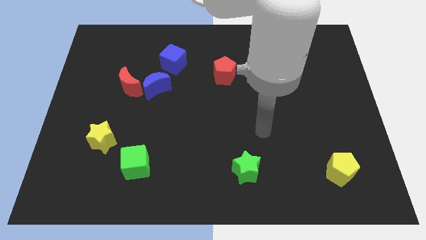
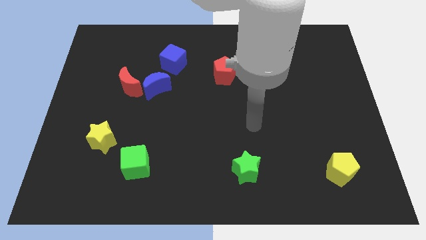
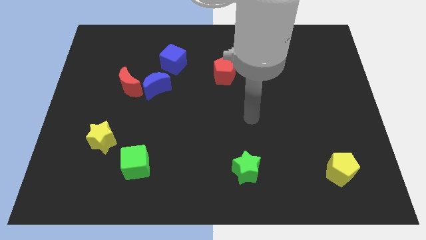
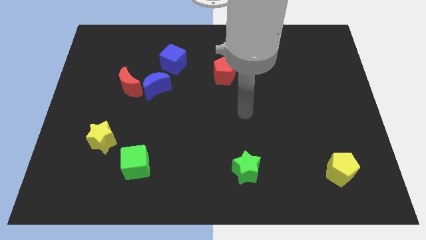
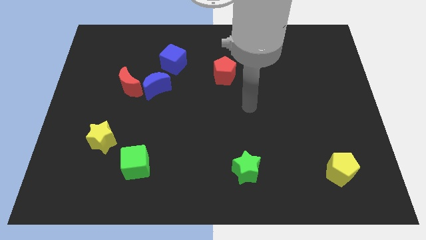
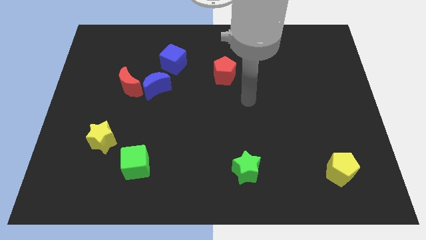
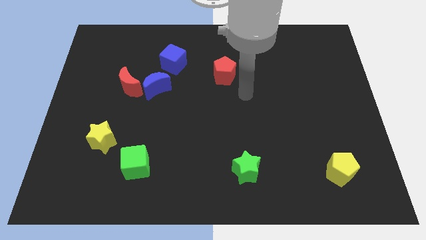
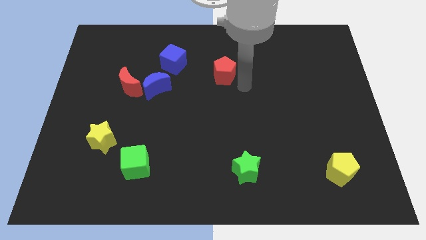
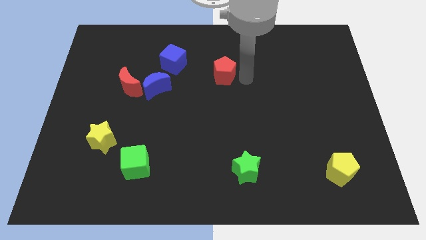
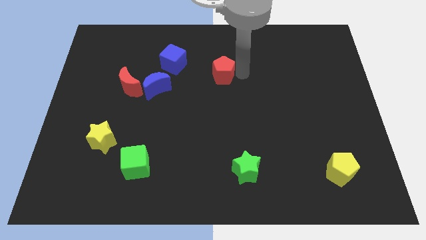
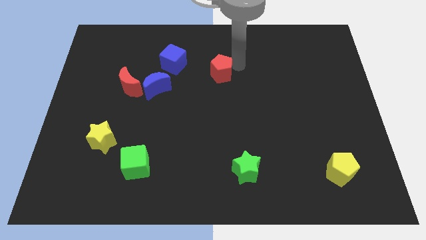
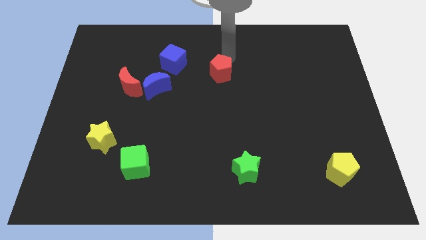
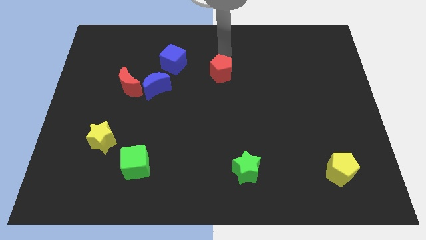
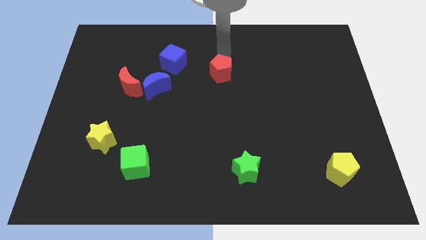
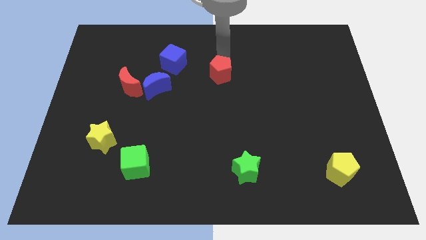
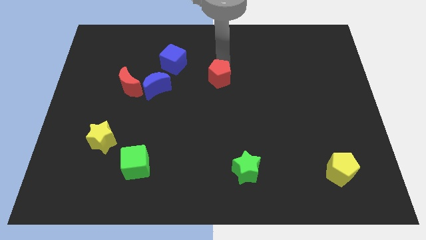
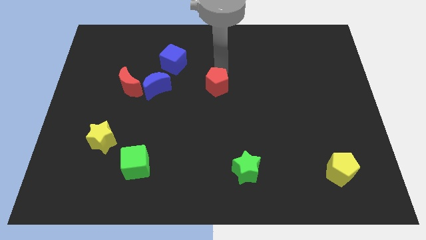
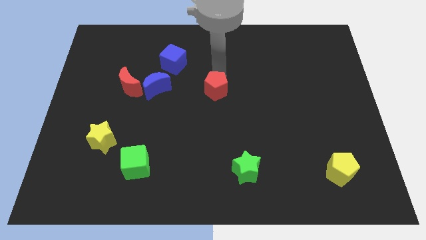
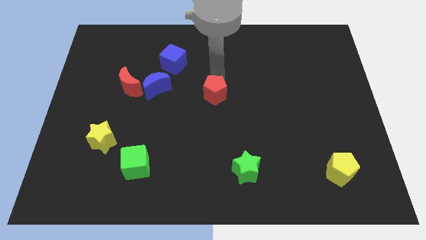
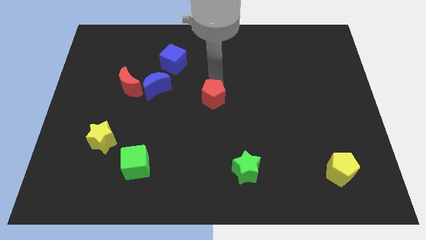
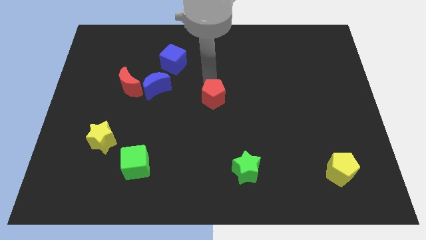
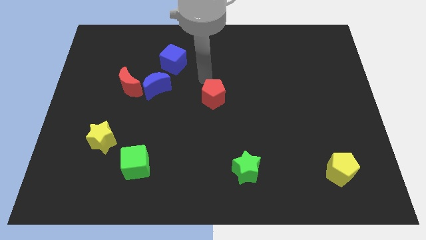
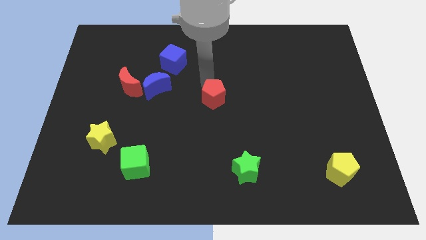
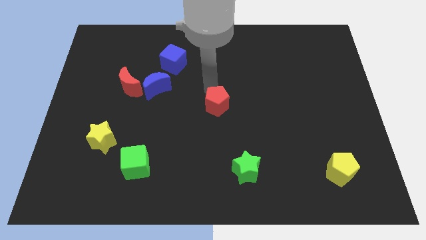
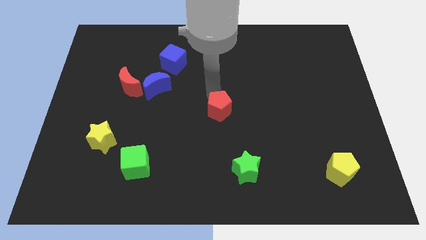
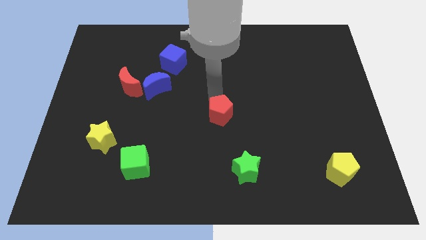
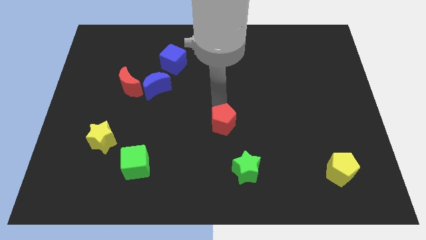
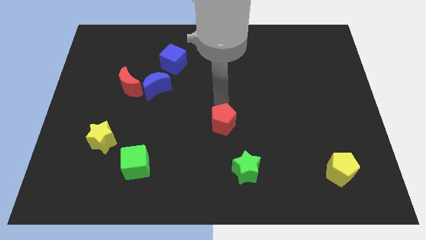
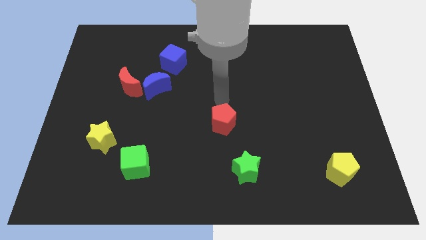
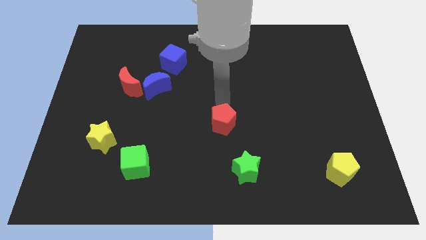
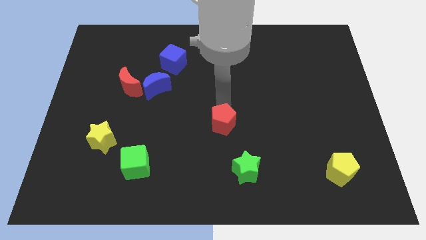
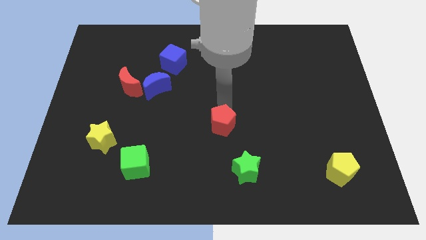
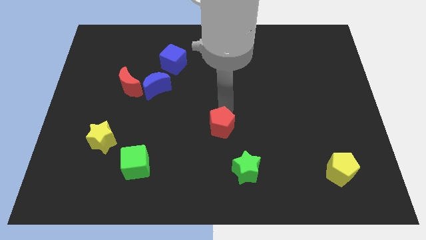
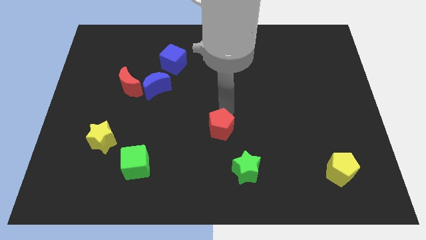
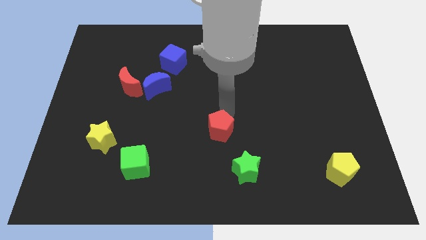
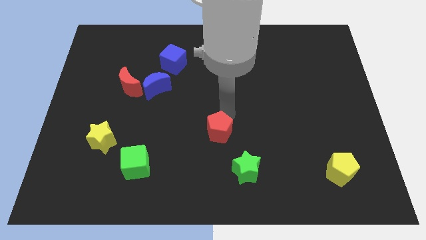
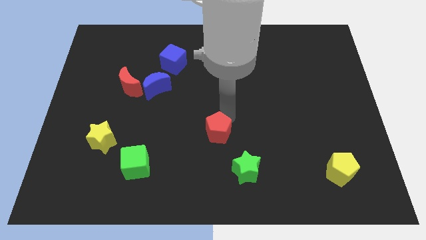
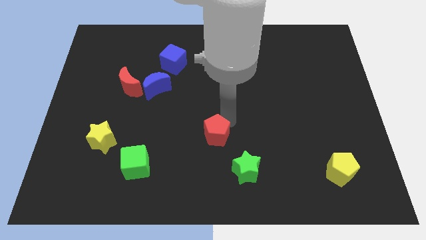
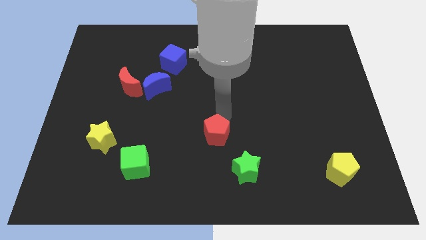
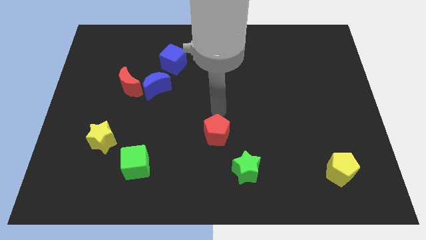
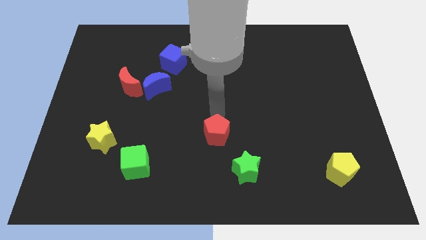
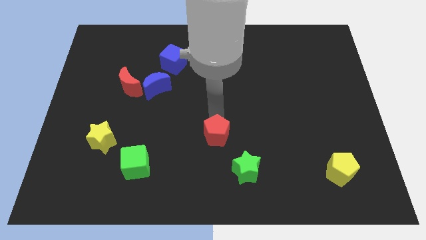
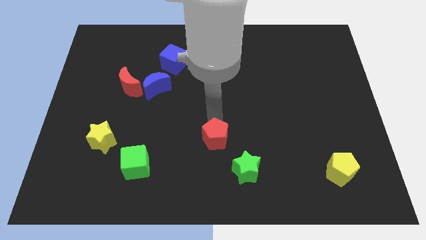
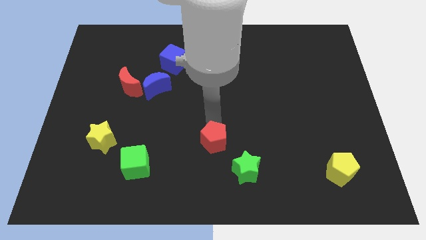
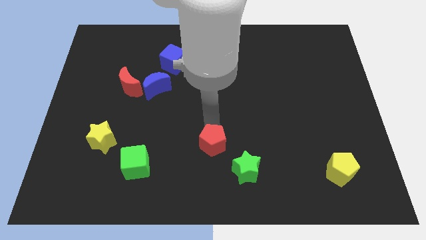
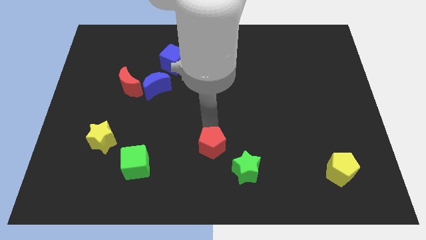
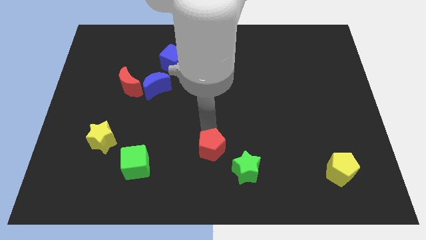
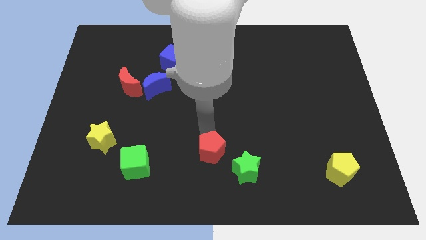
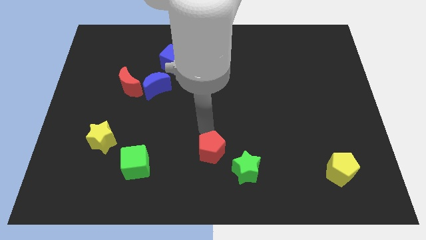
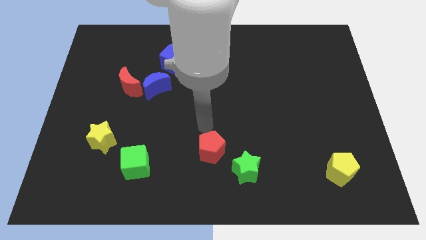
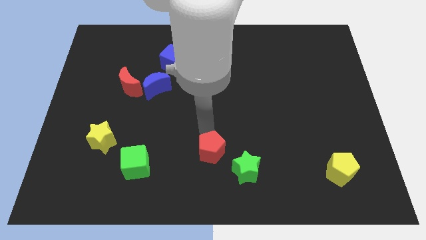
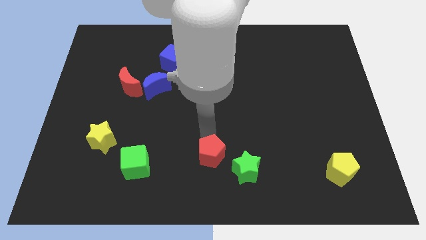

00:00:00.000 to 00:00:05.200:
slide the red pentagon to the bottom side

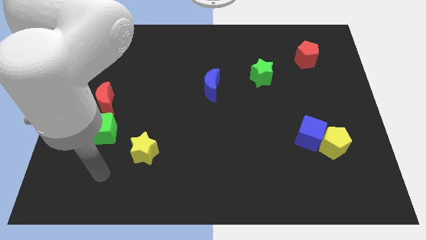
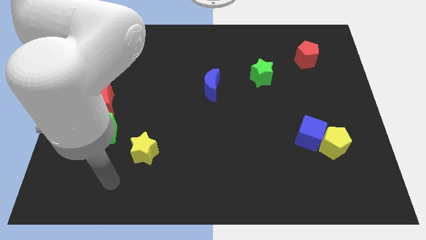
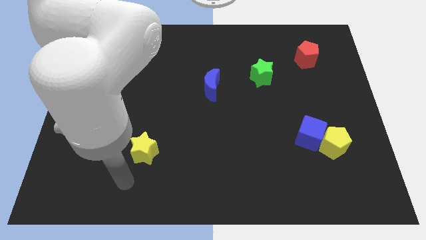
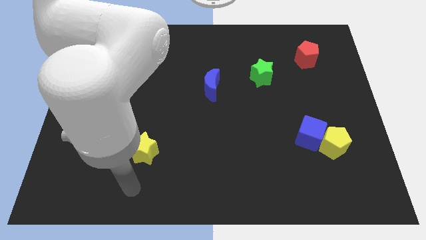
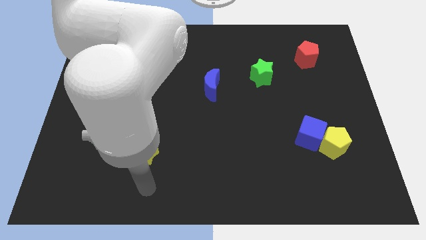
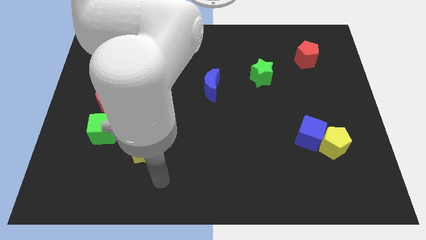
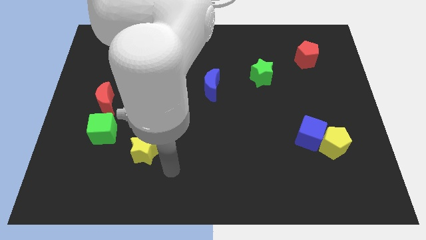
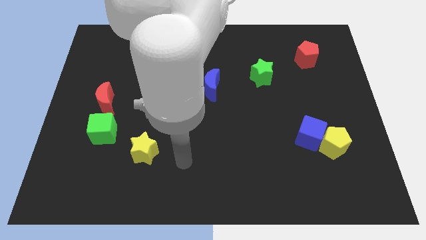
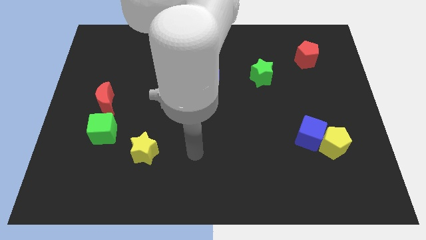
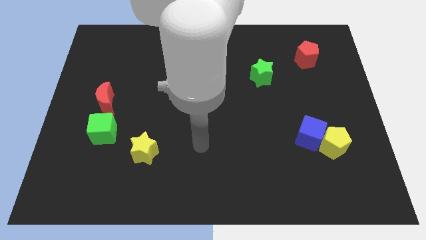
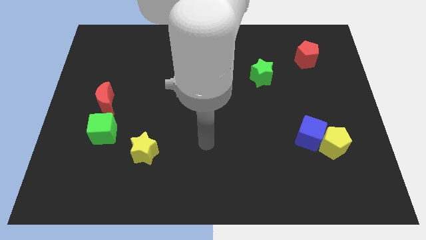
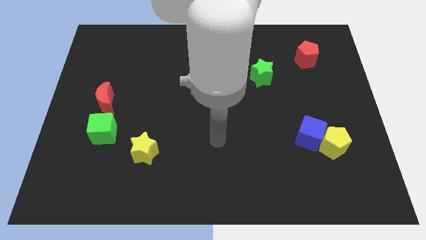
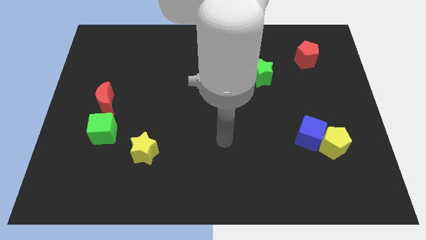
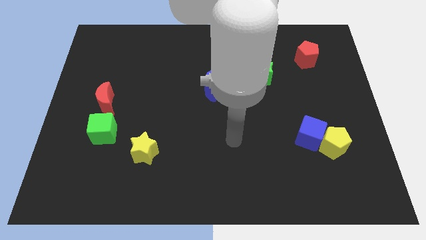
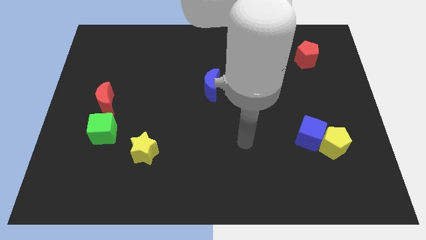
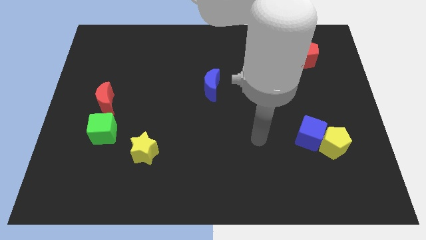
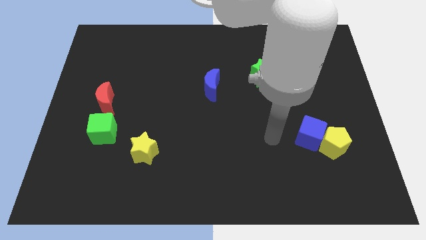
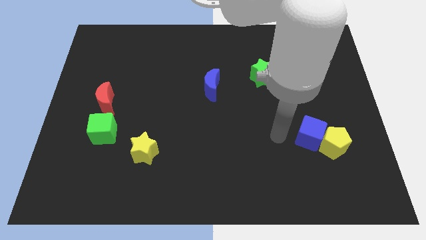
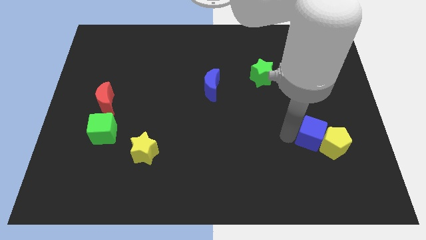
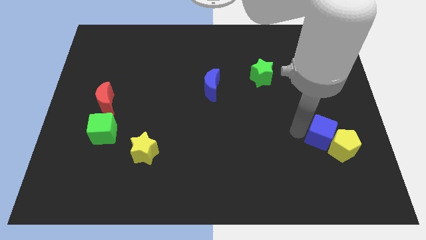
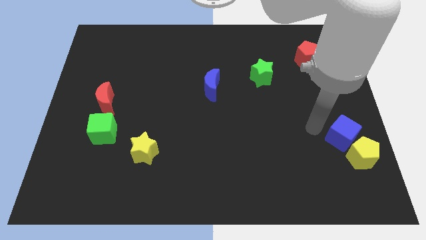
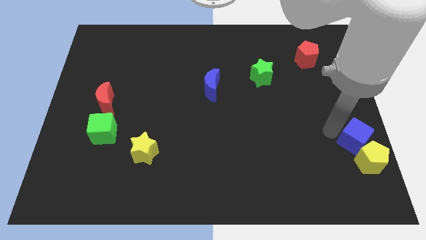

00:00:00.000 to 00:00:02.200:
move the yellow pentagon to the bottom right
